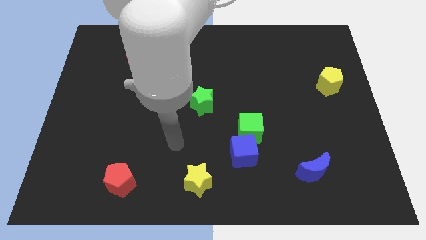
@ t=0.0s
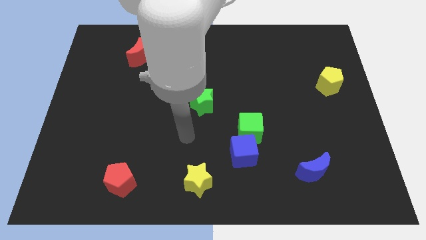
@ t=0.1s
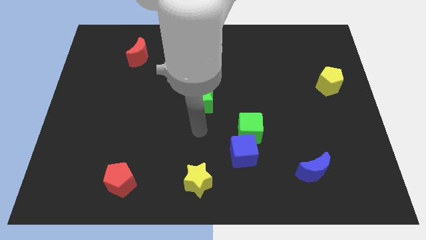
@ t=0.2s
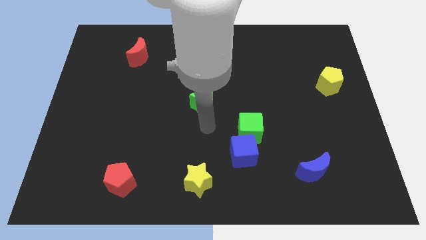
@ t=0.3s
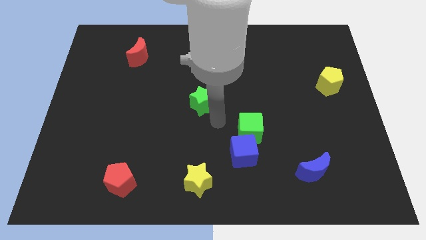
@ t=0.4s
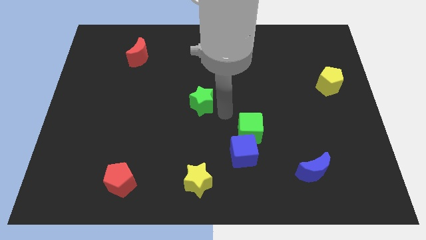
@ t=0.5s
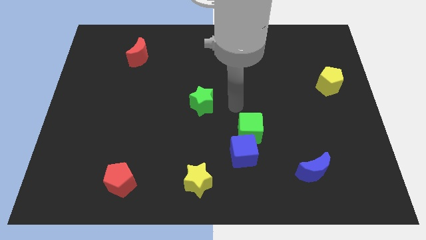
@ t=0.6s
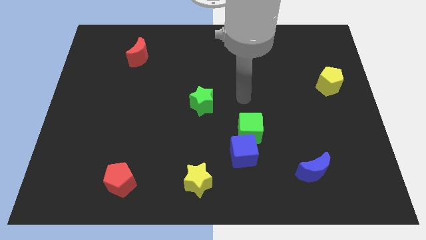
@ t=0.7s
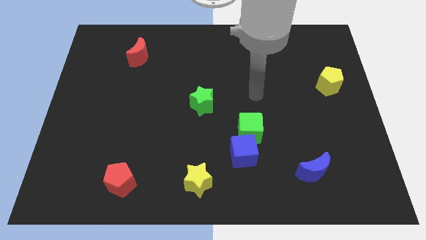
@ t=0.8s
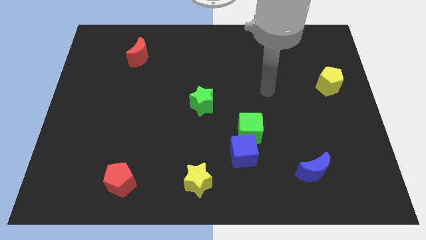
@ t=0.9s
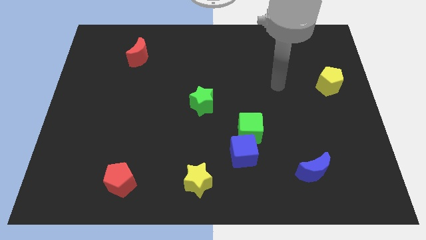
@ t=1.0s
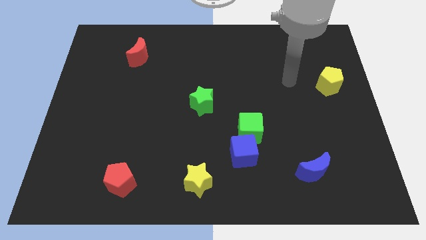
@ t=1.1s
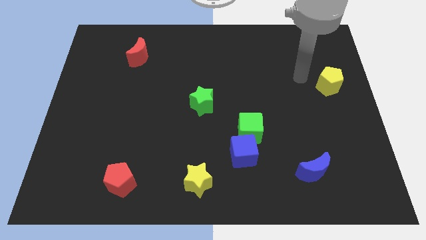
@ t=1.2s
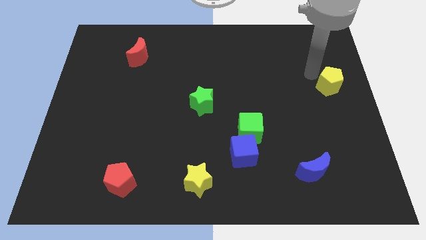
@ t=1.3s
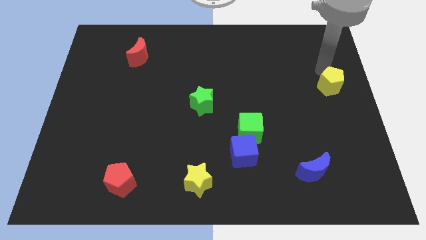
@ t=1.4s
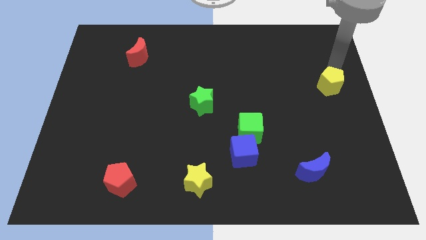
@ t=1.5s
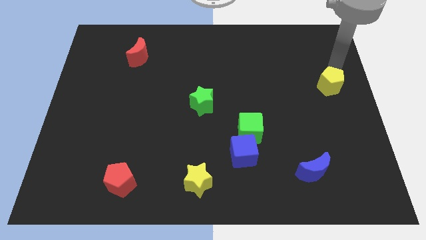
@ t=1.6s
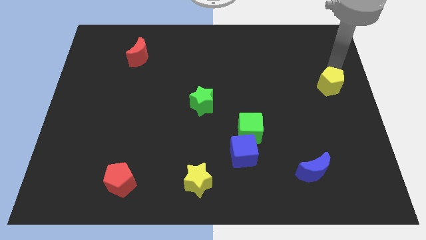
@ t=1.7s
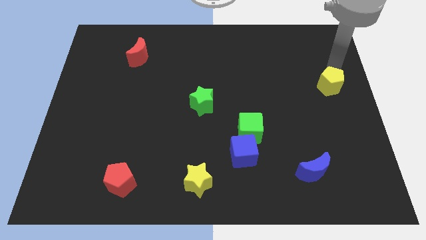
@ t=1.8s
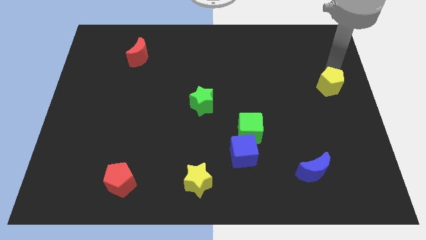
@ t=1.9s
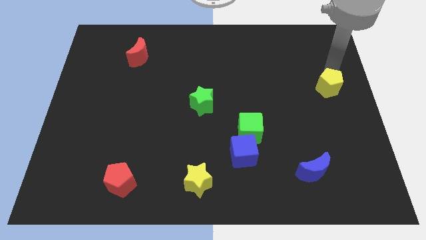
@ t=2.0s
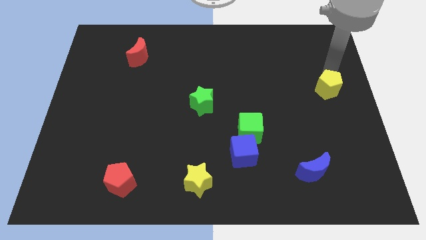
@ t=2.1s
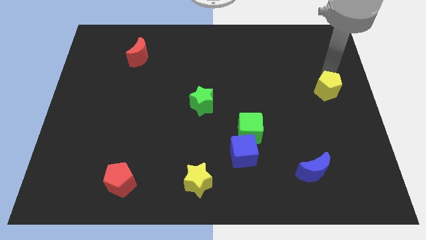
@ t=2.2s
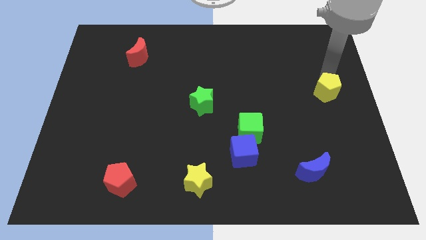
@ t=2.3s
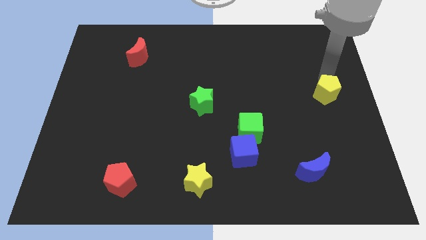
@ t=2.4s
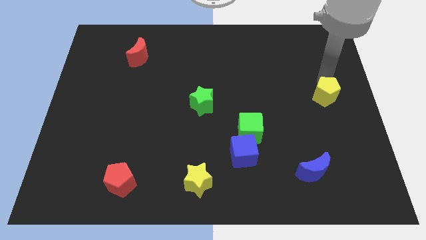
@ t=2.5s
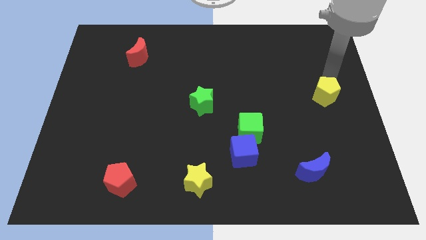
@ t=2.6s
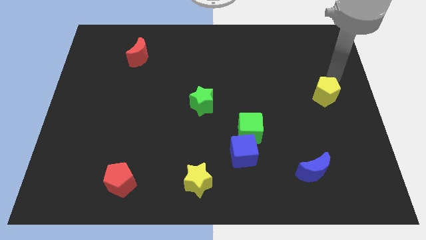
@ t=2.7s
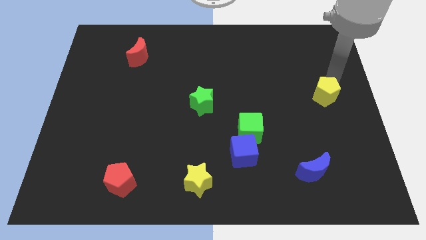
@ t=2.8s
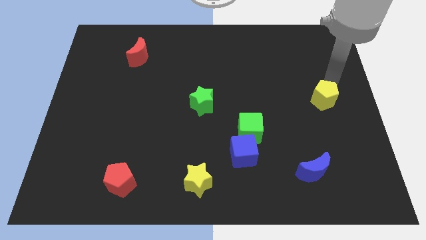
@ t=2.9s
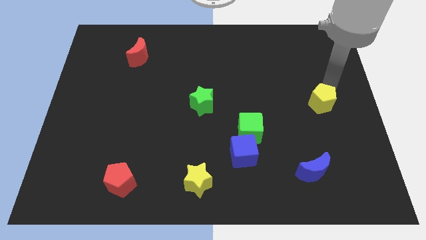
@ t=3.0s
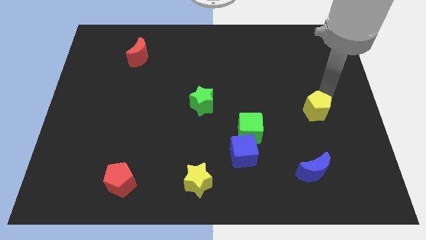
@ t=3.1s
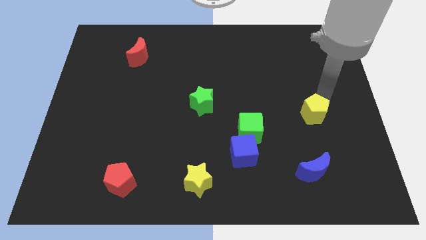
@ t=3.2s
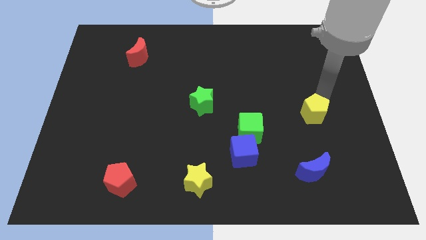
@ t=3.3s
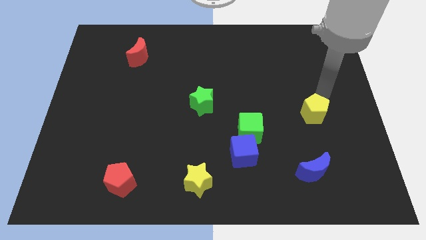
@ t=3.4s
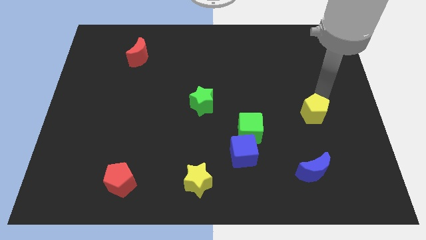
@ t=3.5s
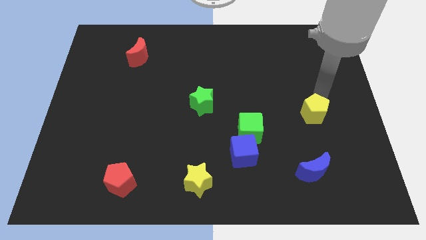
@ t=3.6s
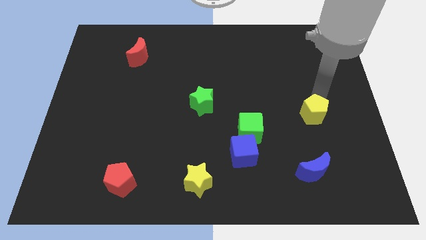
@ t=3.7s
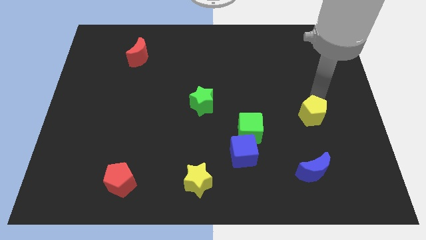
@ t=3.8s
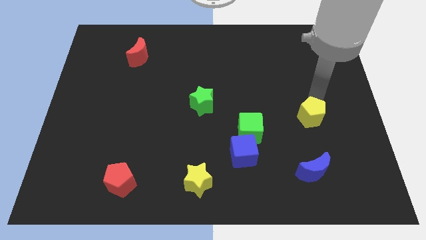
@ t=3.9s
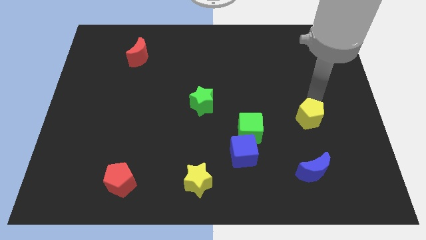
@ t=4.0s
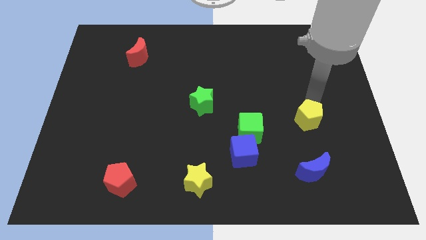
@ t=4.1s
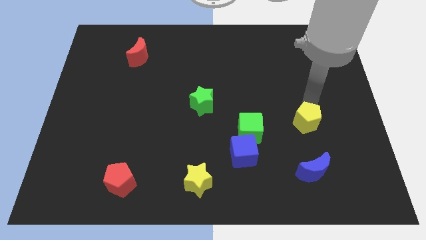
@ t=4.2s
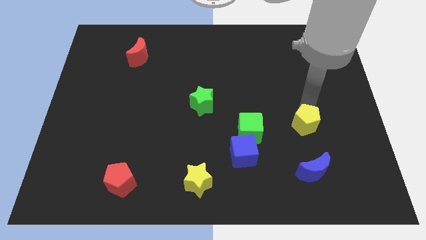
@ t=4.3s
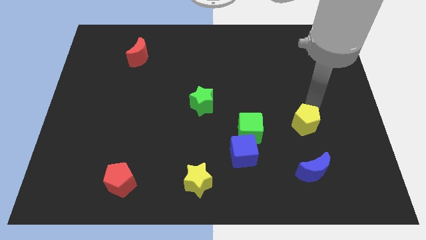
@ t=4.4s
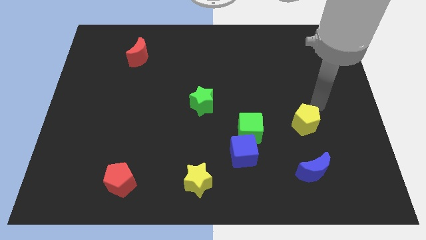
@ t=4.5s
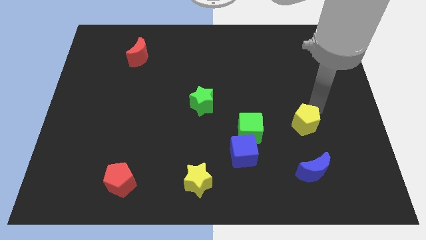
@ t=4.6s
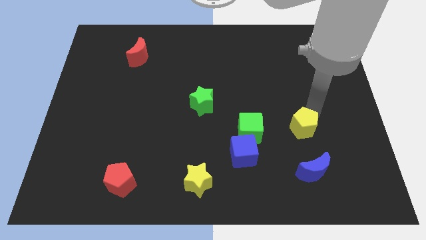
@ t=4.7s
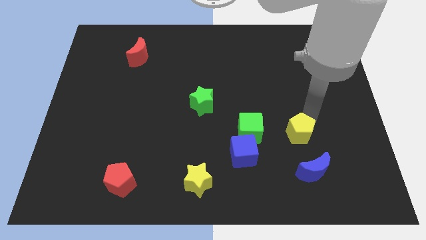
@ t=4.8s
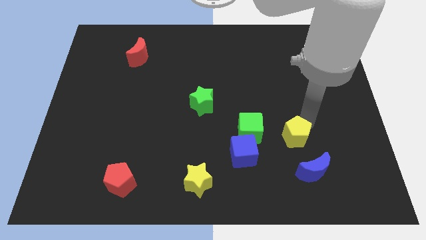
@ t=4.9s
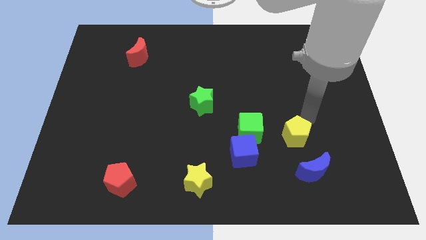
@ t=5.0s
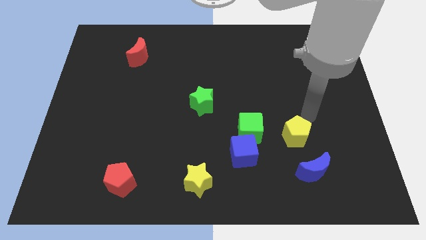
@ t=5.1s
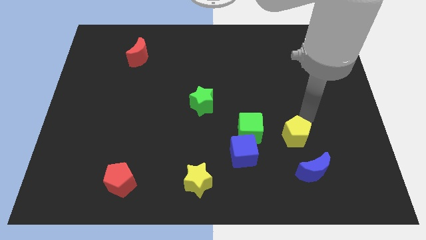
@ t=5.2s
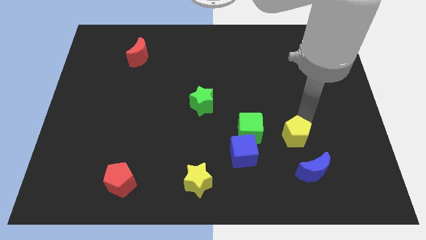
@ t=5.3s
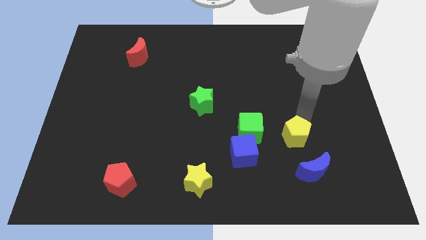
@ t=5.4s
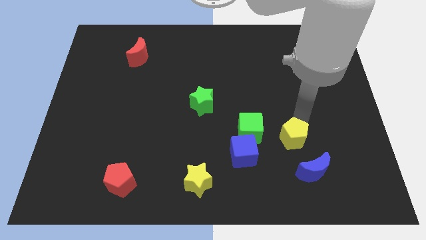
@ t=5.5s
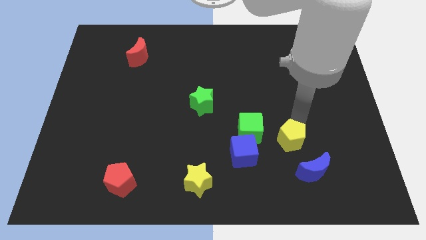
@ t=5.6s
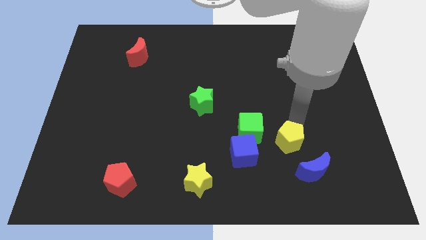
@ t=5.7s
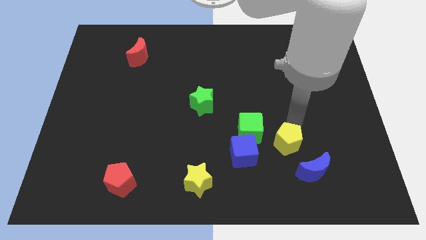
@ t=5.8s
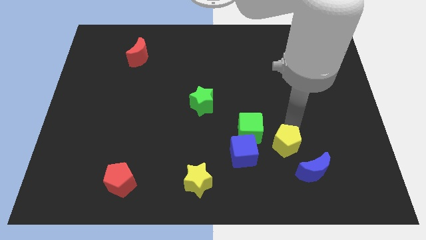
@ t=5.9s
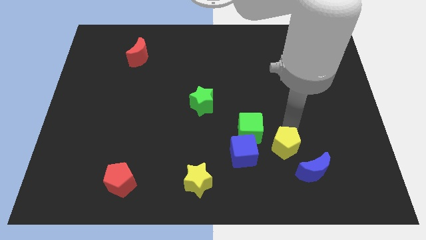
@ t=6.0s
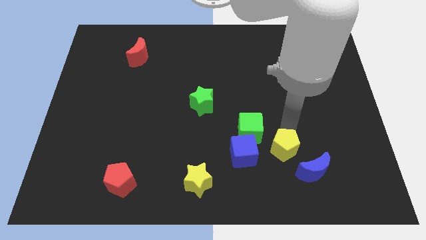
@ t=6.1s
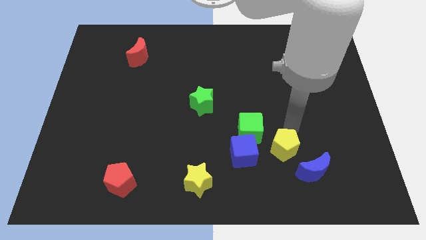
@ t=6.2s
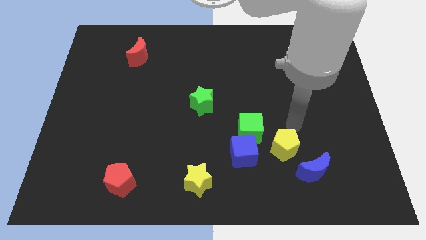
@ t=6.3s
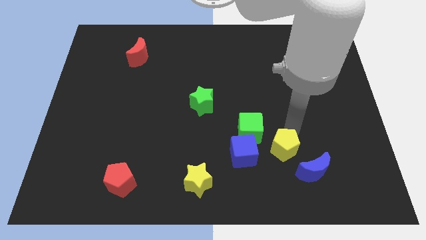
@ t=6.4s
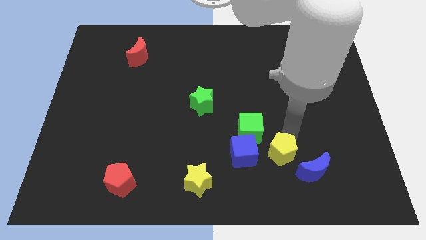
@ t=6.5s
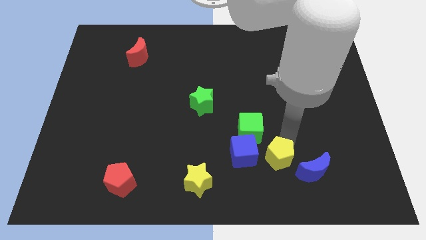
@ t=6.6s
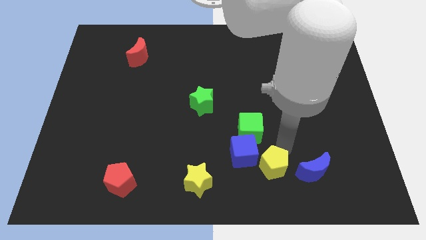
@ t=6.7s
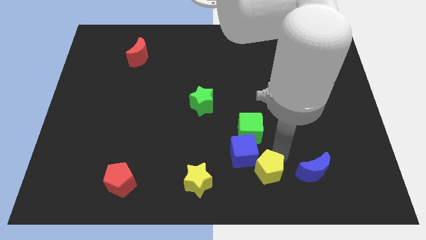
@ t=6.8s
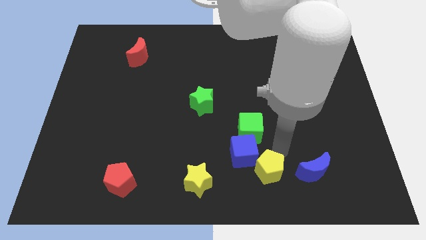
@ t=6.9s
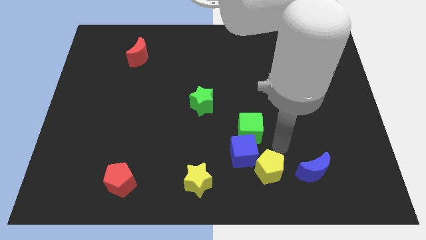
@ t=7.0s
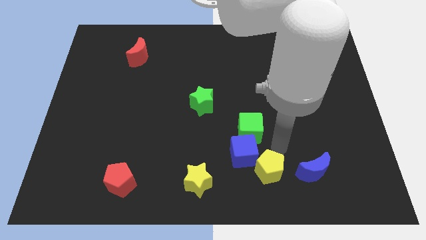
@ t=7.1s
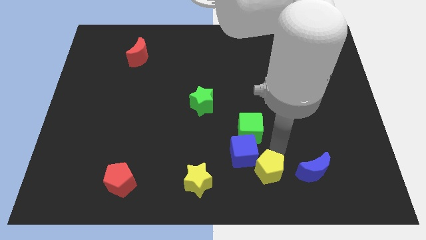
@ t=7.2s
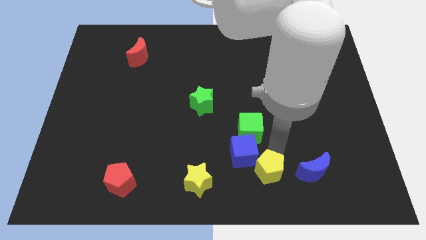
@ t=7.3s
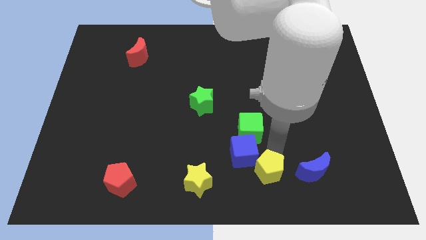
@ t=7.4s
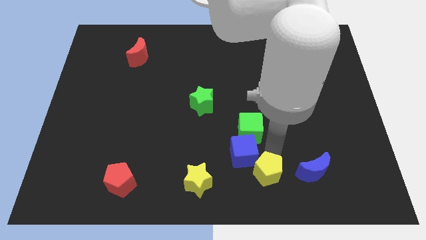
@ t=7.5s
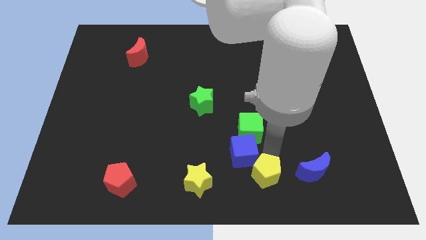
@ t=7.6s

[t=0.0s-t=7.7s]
push the yellow pentagon to the bottom
